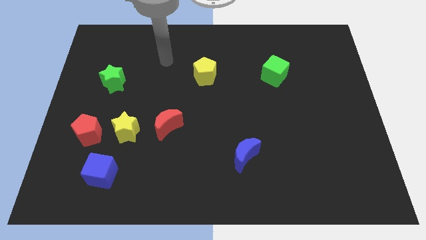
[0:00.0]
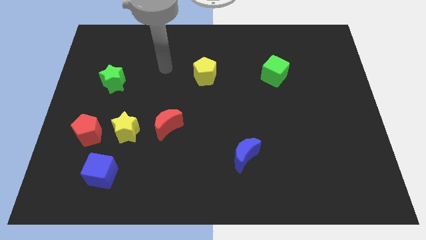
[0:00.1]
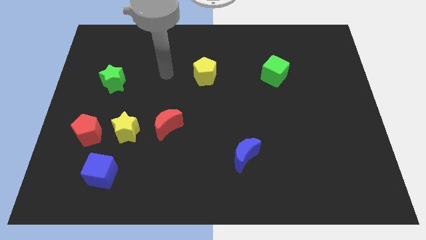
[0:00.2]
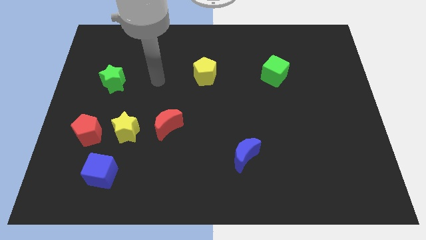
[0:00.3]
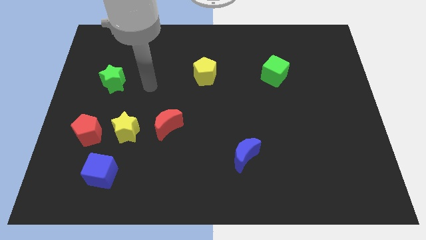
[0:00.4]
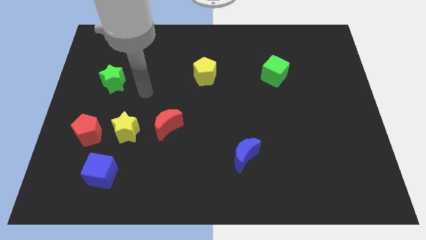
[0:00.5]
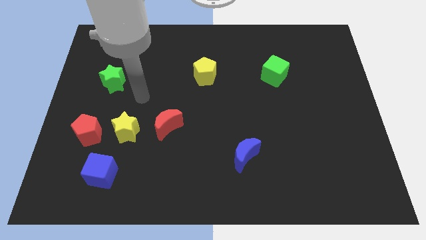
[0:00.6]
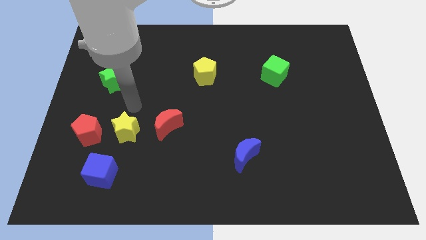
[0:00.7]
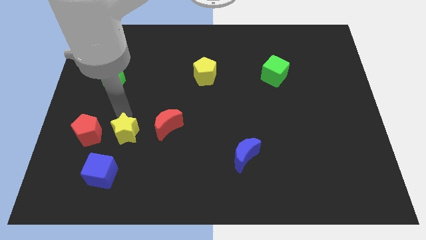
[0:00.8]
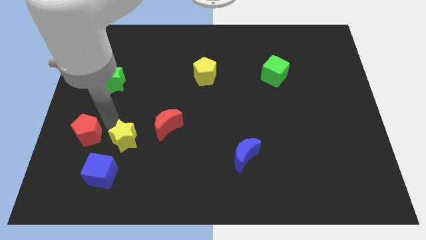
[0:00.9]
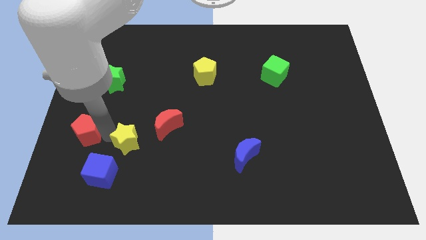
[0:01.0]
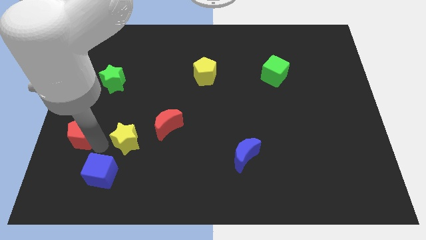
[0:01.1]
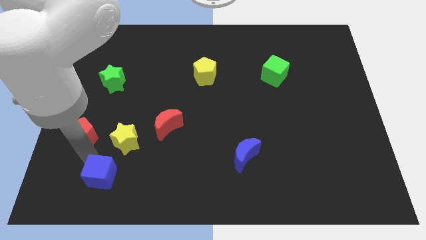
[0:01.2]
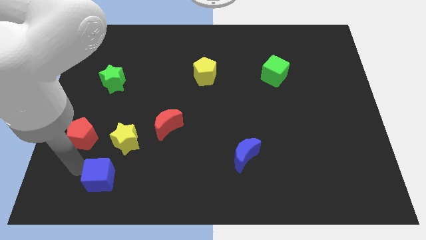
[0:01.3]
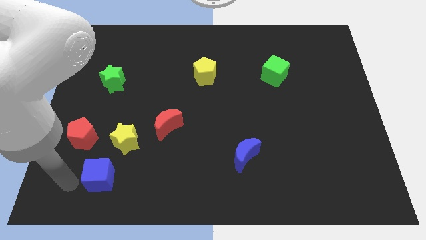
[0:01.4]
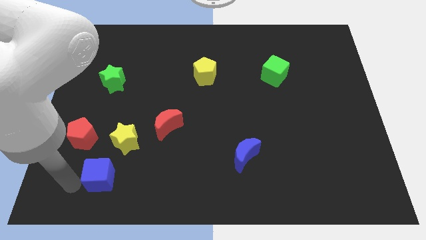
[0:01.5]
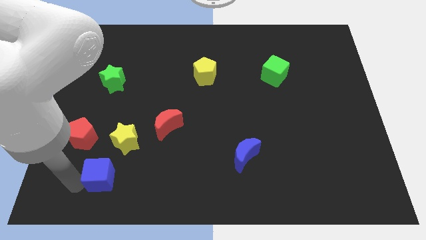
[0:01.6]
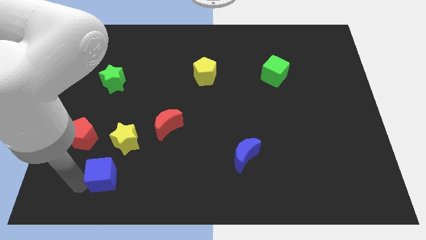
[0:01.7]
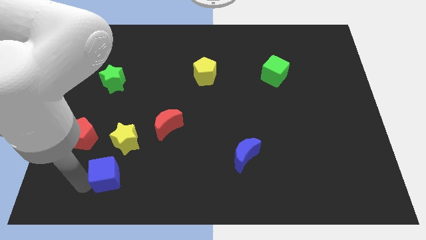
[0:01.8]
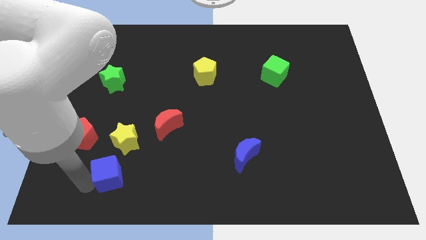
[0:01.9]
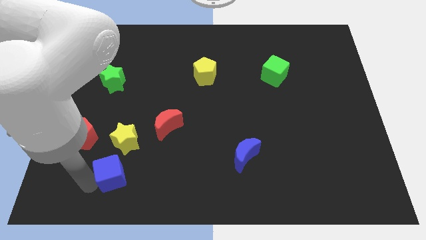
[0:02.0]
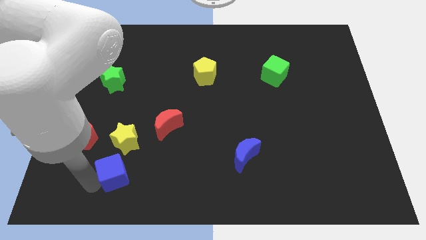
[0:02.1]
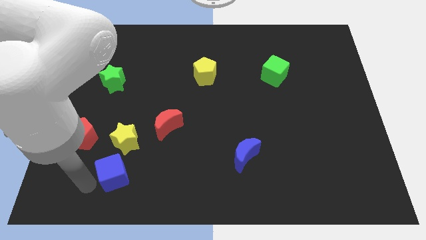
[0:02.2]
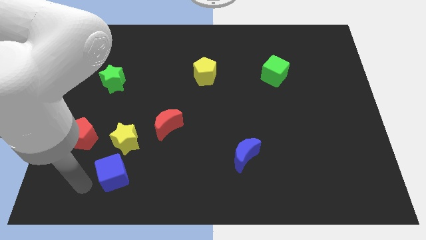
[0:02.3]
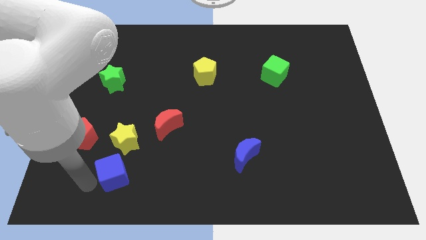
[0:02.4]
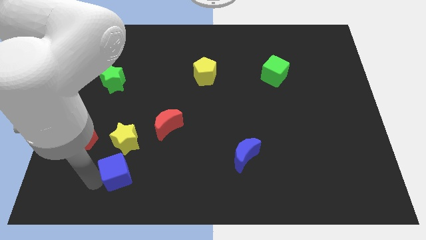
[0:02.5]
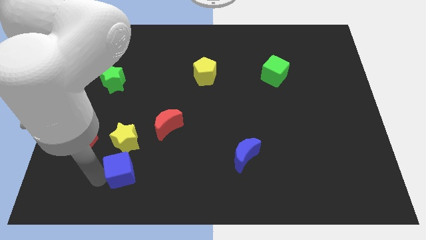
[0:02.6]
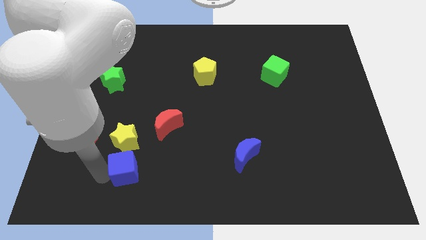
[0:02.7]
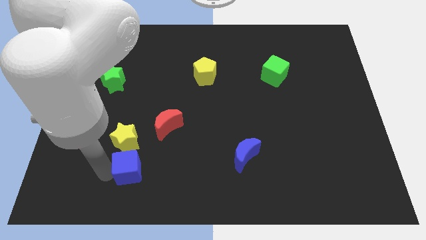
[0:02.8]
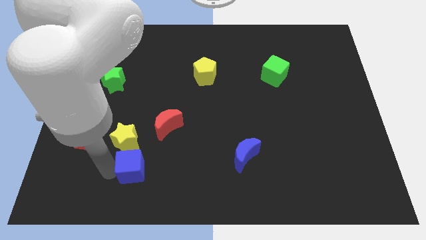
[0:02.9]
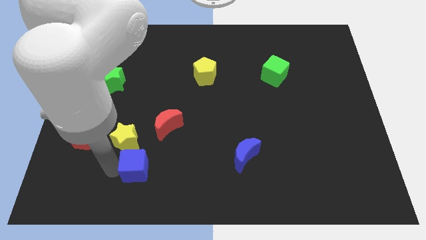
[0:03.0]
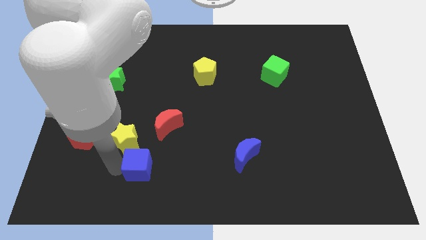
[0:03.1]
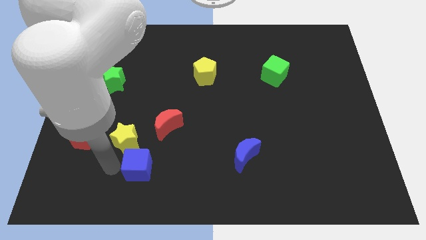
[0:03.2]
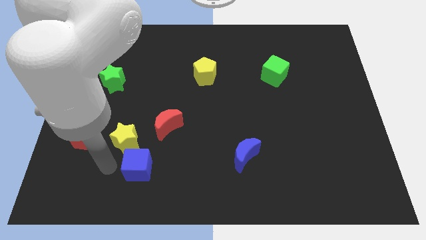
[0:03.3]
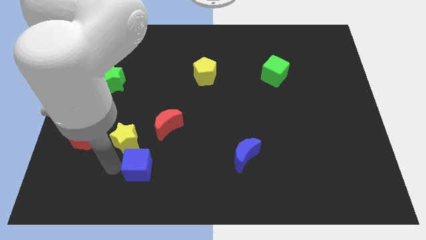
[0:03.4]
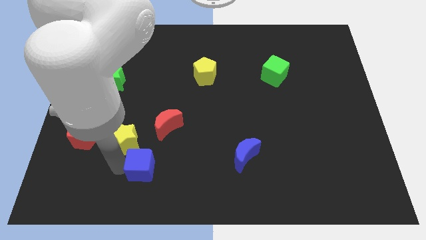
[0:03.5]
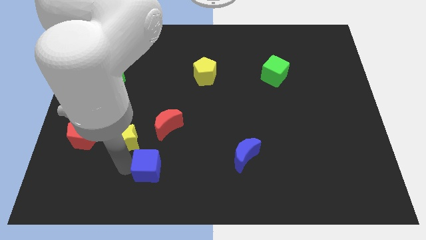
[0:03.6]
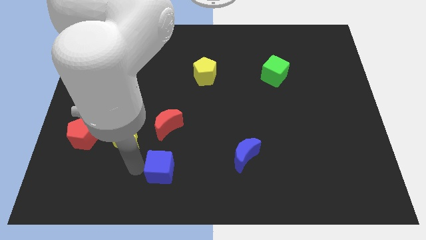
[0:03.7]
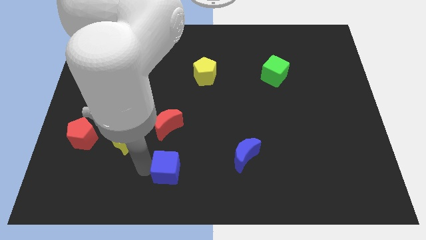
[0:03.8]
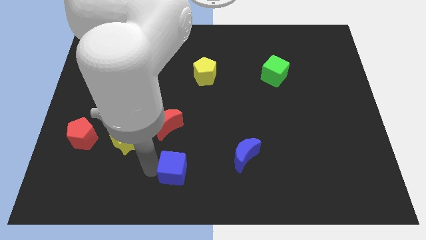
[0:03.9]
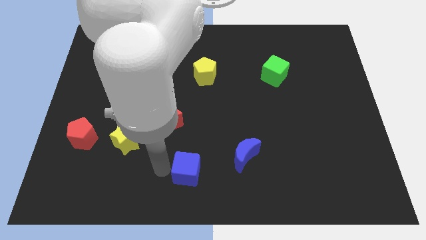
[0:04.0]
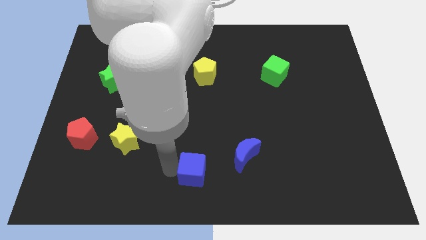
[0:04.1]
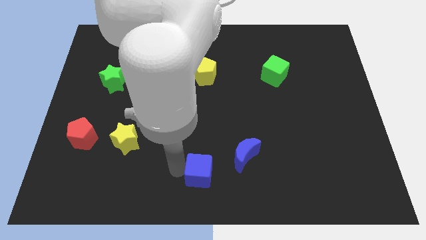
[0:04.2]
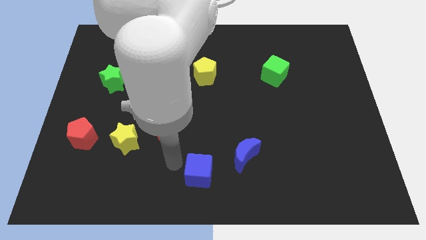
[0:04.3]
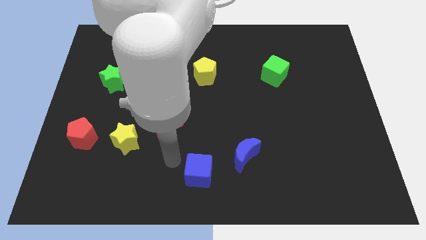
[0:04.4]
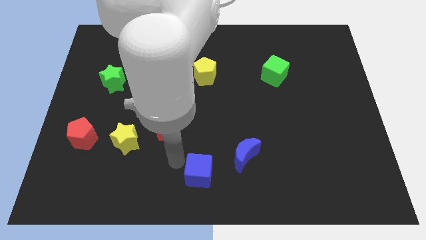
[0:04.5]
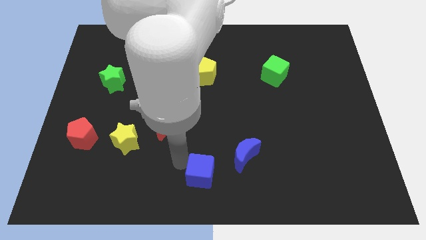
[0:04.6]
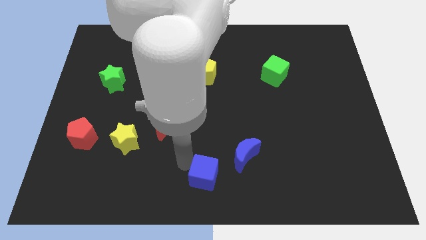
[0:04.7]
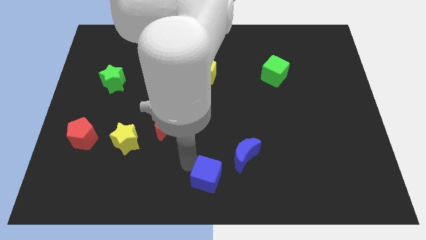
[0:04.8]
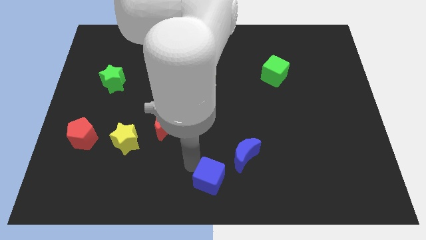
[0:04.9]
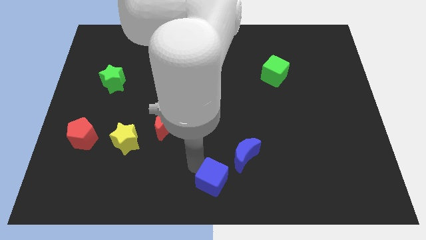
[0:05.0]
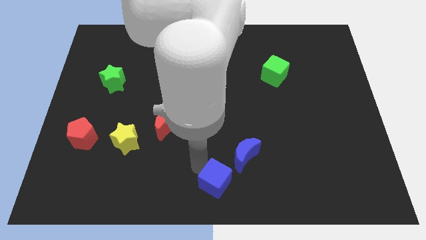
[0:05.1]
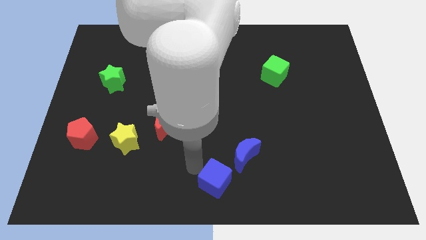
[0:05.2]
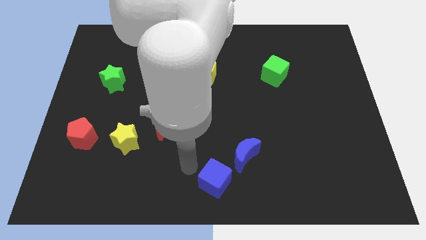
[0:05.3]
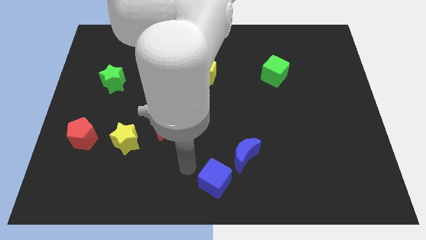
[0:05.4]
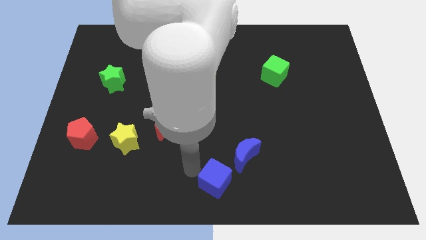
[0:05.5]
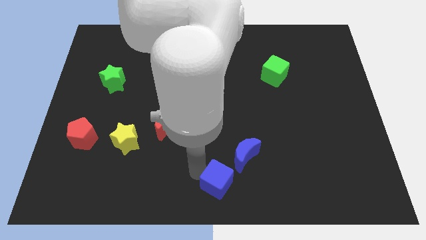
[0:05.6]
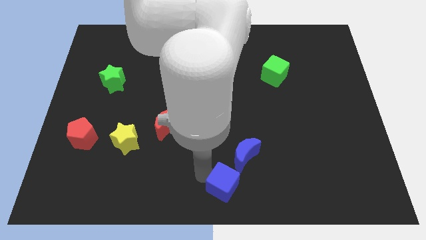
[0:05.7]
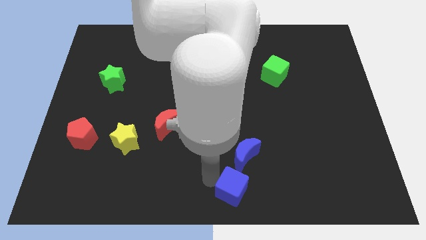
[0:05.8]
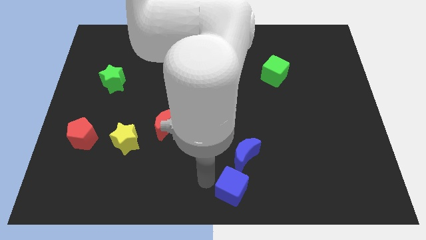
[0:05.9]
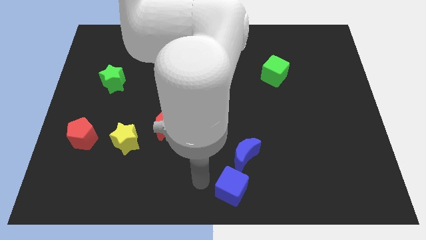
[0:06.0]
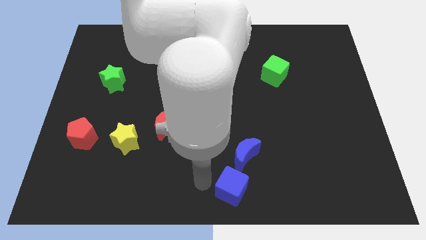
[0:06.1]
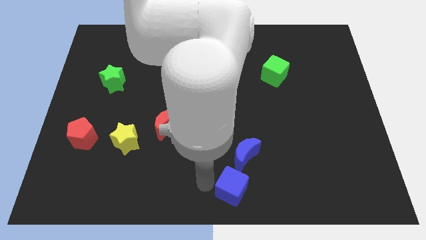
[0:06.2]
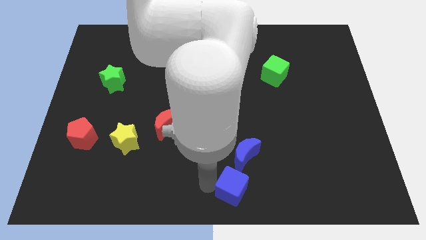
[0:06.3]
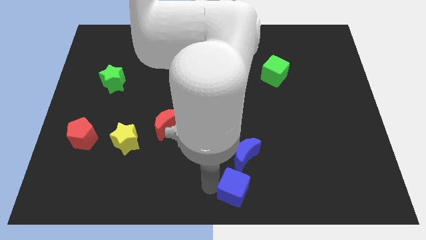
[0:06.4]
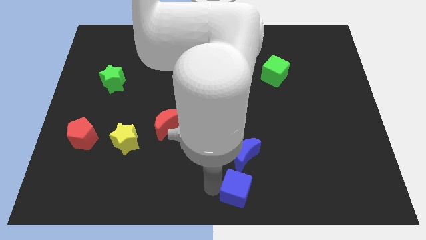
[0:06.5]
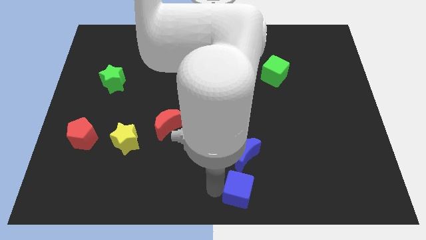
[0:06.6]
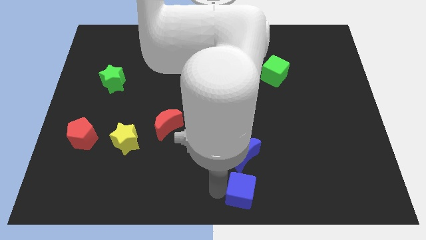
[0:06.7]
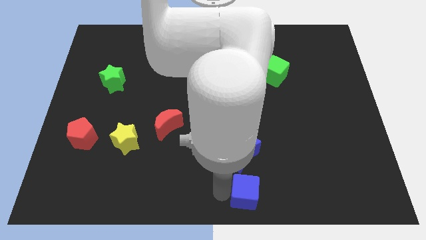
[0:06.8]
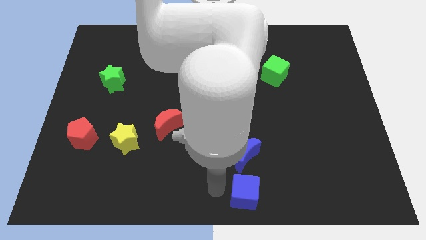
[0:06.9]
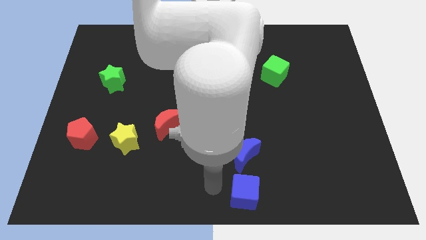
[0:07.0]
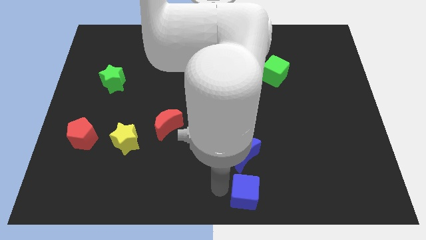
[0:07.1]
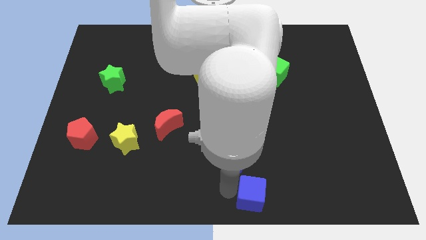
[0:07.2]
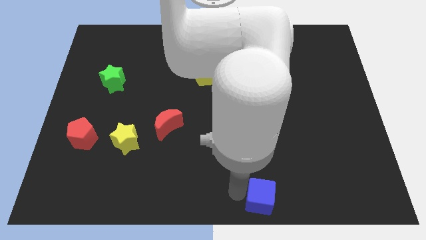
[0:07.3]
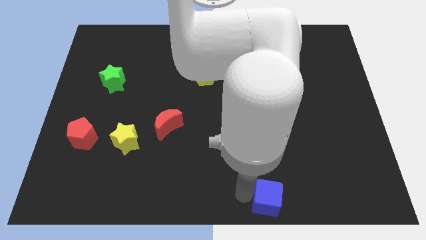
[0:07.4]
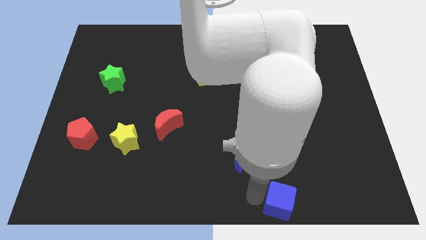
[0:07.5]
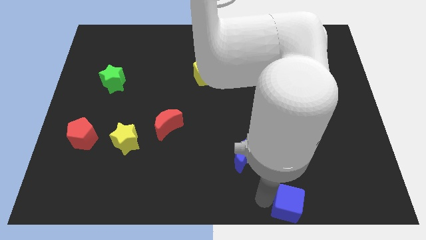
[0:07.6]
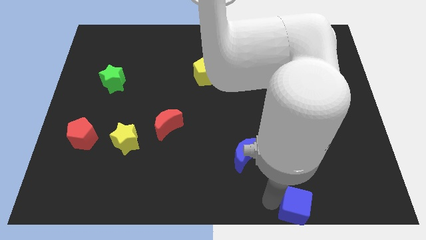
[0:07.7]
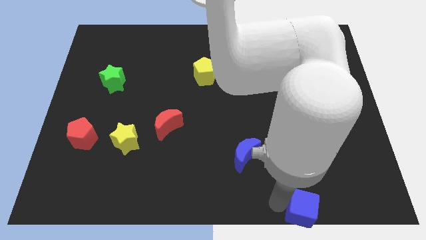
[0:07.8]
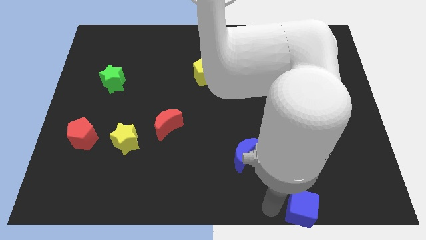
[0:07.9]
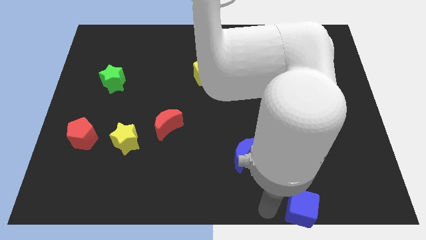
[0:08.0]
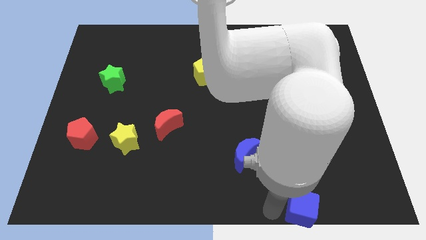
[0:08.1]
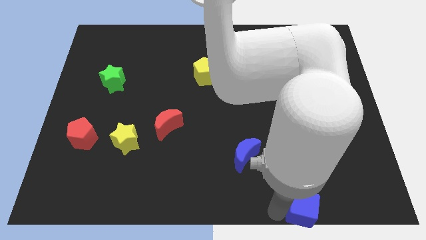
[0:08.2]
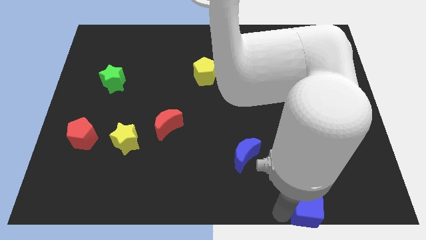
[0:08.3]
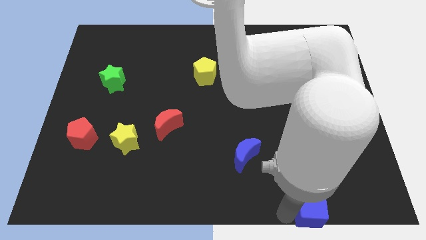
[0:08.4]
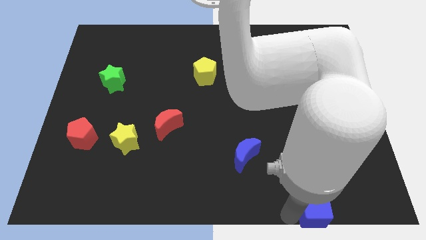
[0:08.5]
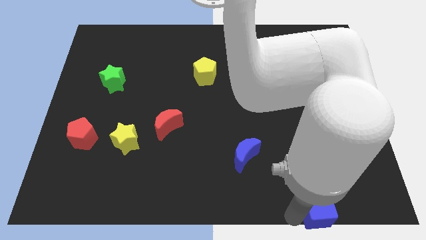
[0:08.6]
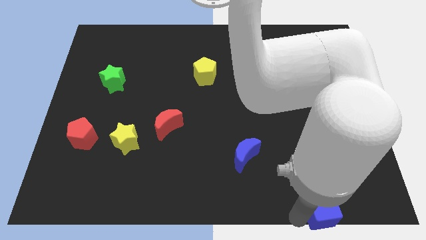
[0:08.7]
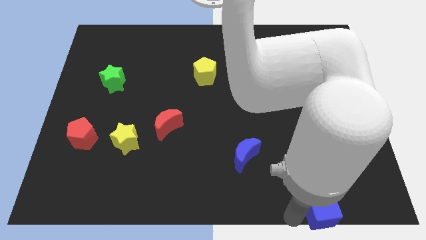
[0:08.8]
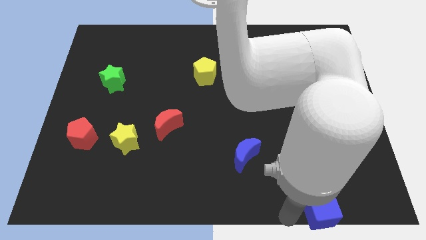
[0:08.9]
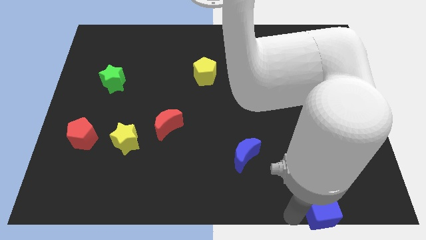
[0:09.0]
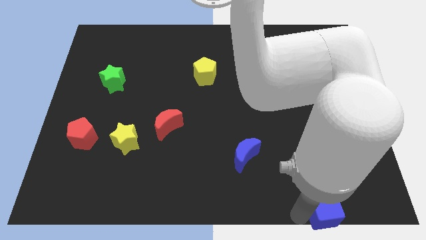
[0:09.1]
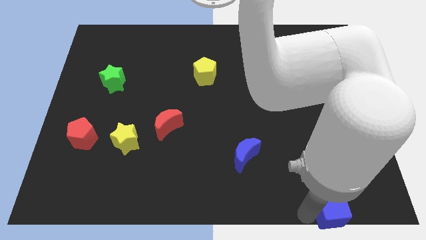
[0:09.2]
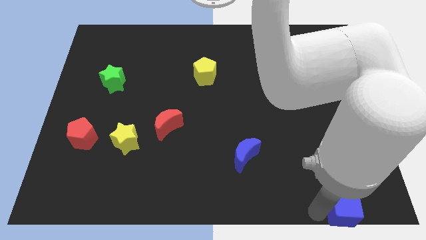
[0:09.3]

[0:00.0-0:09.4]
move the blue cube to the lower right corner
